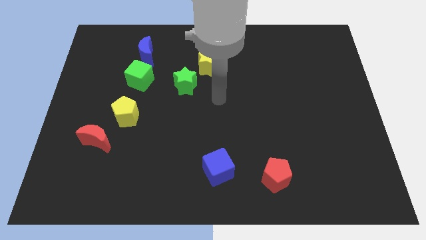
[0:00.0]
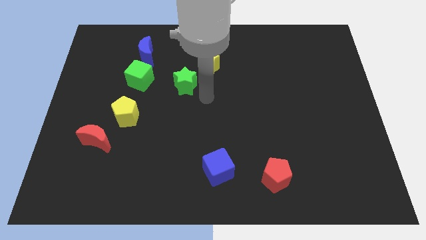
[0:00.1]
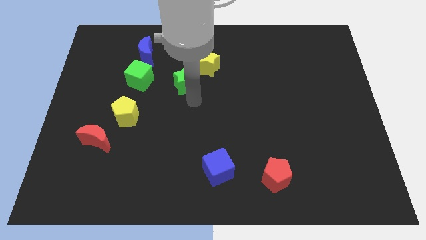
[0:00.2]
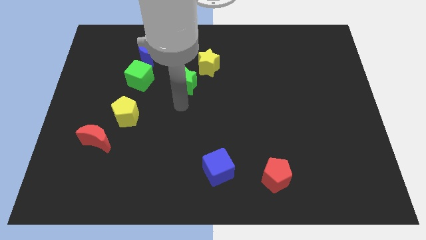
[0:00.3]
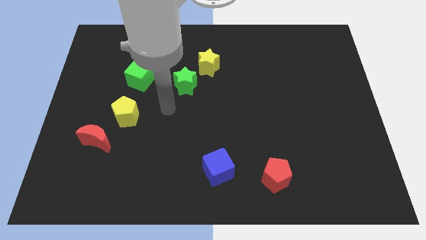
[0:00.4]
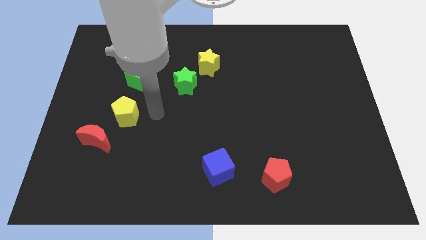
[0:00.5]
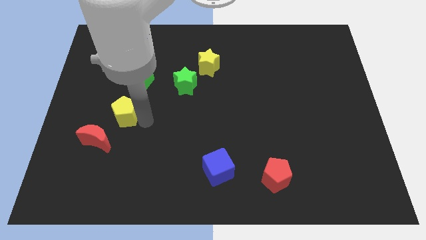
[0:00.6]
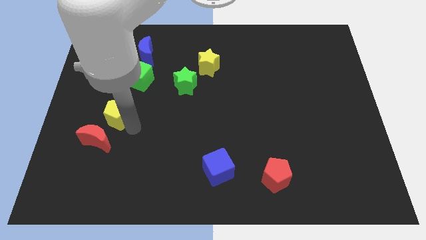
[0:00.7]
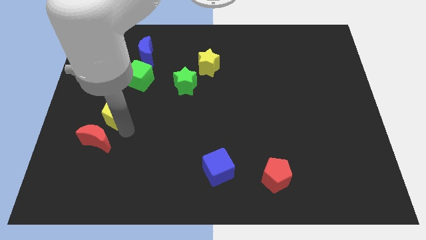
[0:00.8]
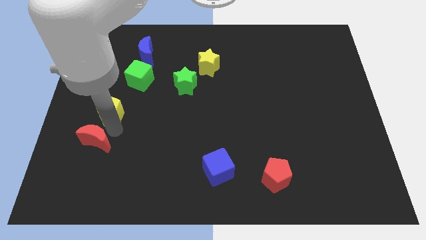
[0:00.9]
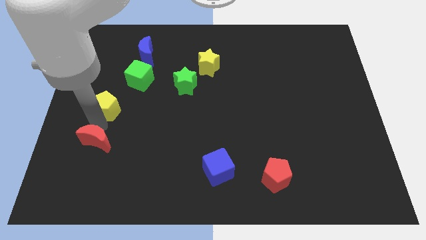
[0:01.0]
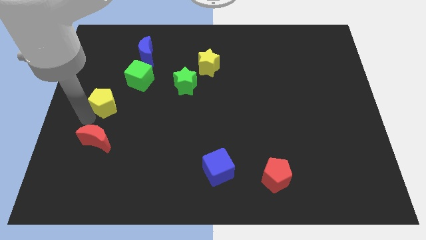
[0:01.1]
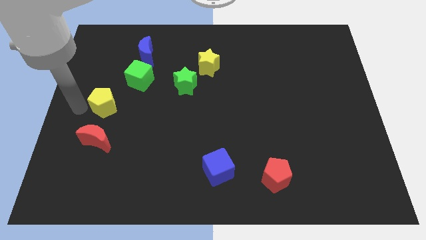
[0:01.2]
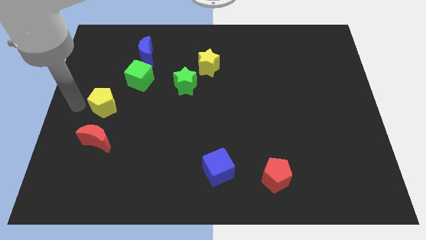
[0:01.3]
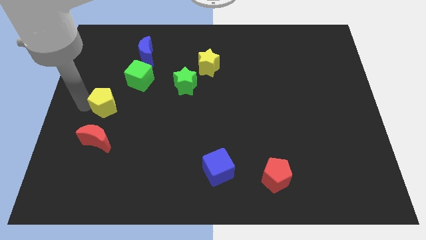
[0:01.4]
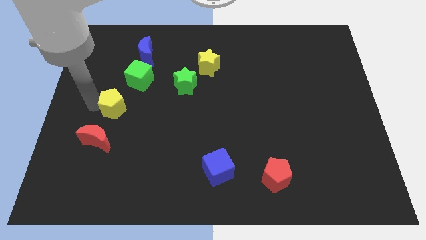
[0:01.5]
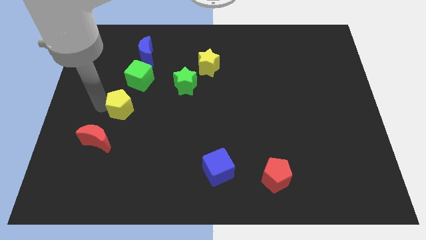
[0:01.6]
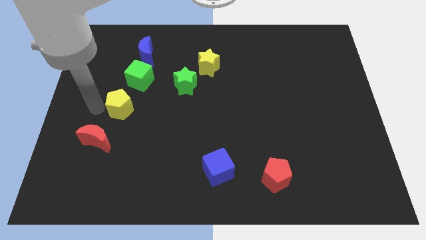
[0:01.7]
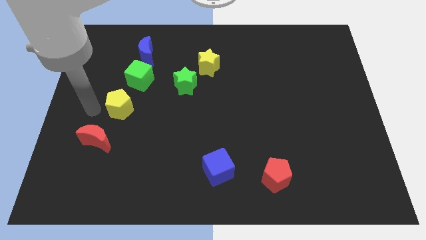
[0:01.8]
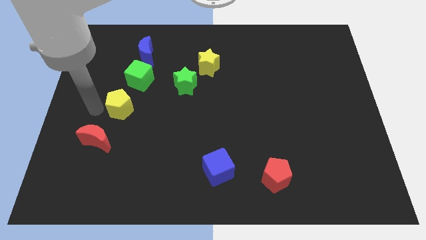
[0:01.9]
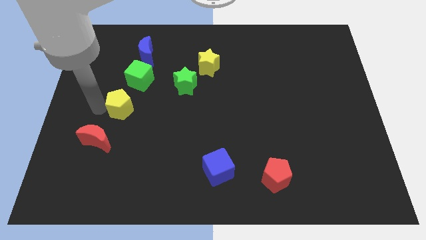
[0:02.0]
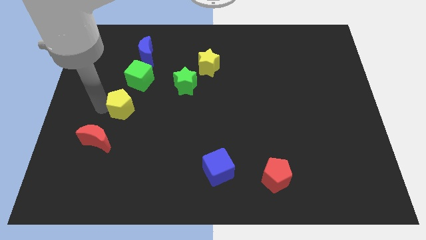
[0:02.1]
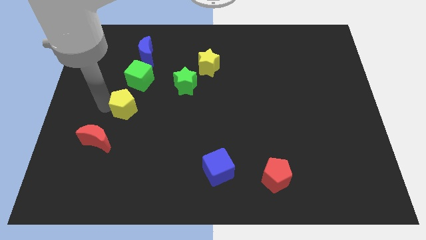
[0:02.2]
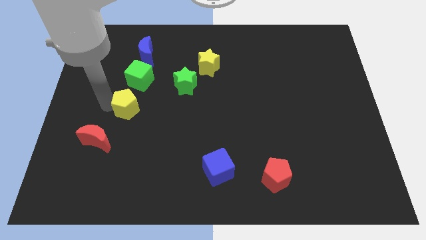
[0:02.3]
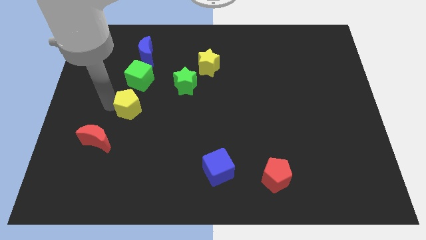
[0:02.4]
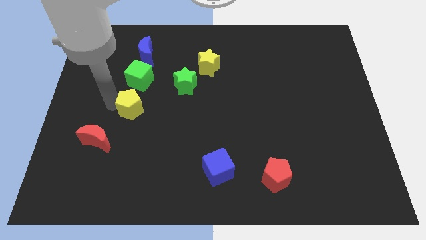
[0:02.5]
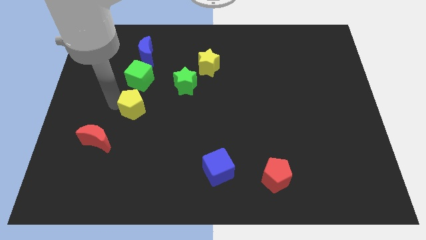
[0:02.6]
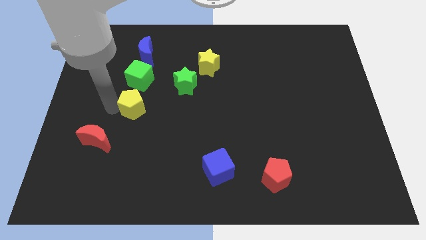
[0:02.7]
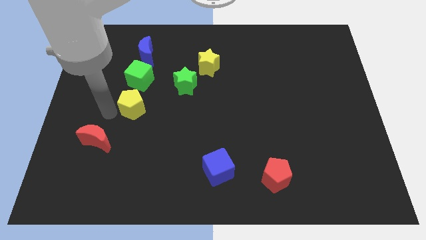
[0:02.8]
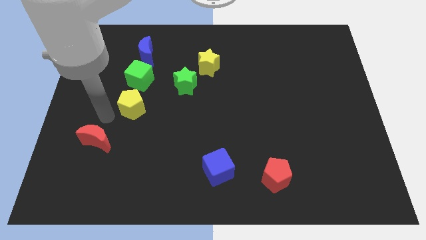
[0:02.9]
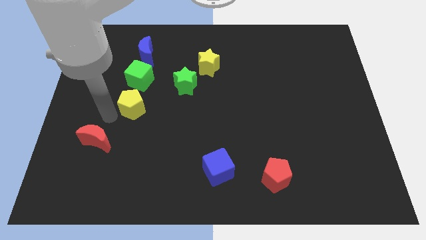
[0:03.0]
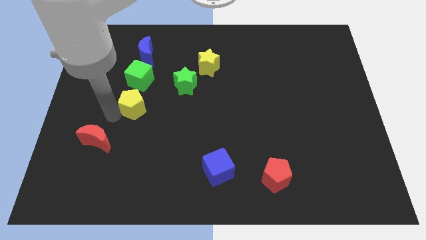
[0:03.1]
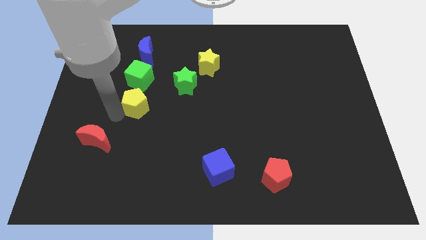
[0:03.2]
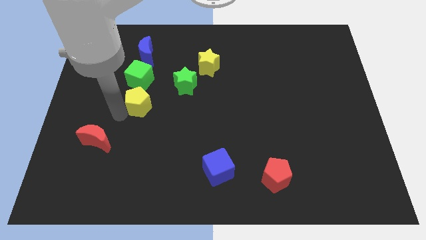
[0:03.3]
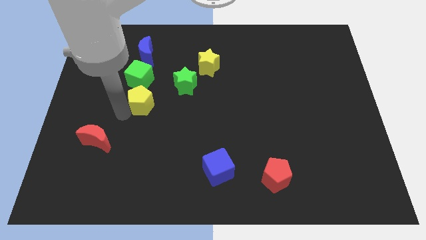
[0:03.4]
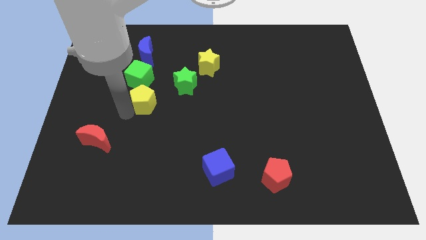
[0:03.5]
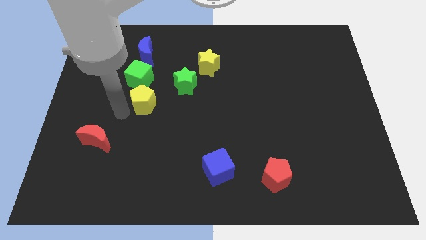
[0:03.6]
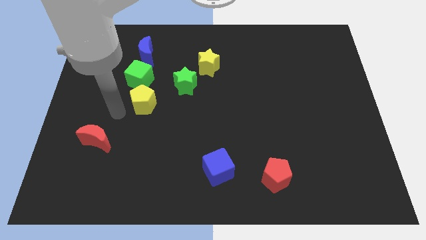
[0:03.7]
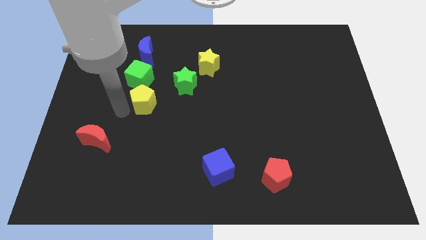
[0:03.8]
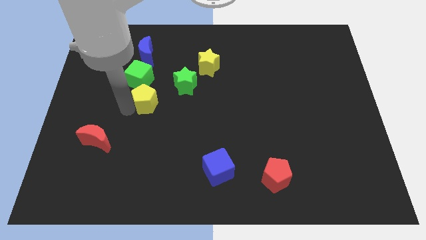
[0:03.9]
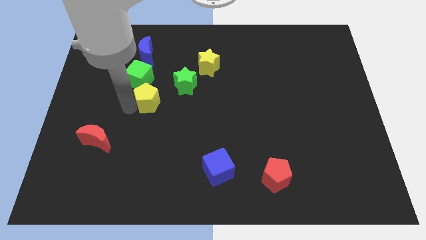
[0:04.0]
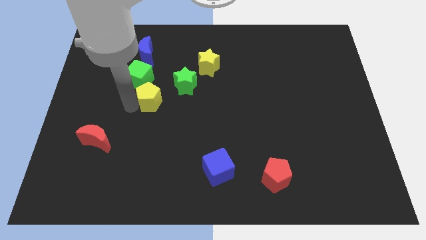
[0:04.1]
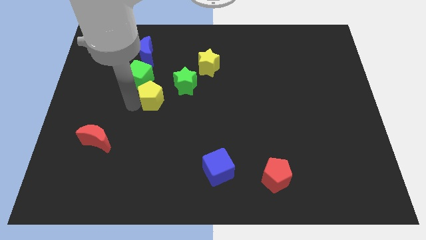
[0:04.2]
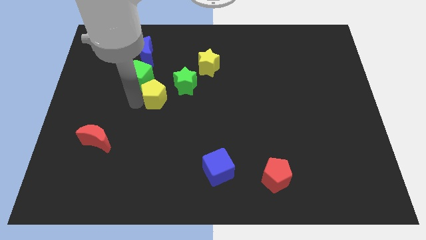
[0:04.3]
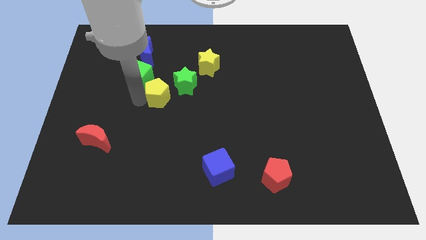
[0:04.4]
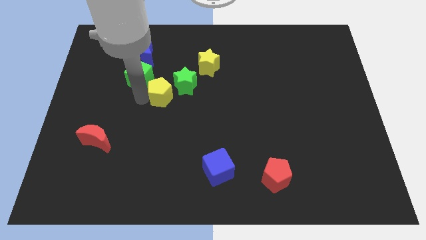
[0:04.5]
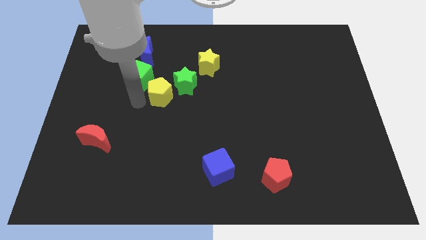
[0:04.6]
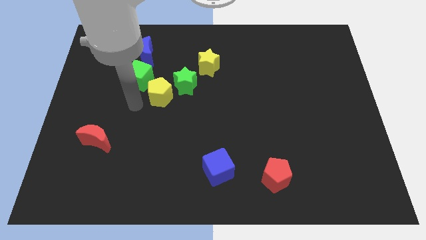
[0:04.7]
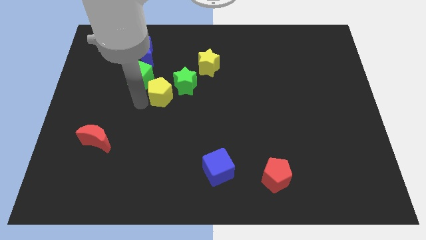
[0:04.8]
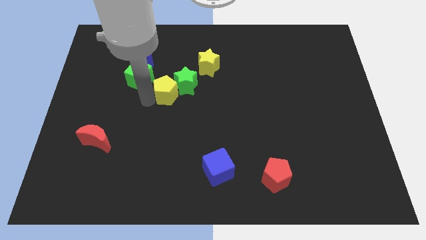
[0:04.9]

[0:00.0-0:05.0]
push the yellow pentagon next to the green star

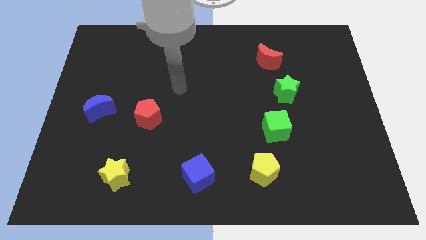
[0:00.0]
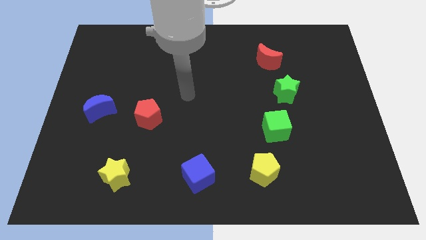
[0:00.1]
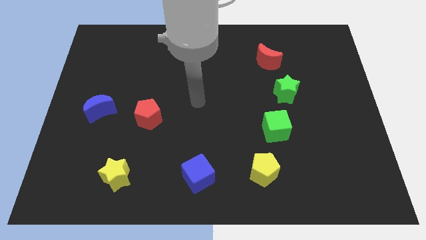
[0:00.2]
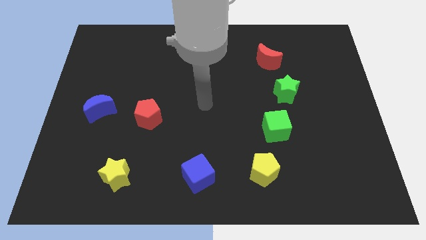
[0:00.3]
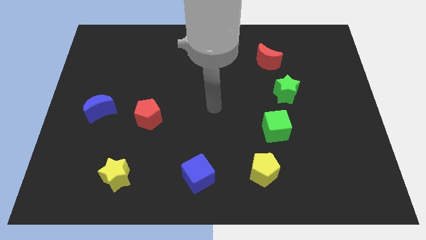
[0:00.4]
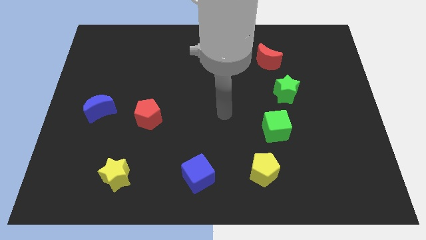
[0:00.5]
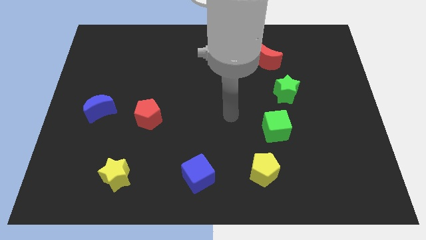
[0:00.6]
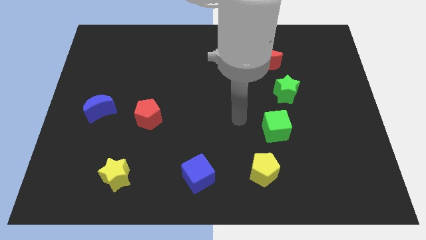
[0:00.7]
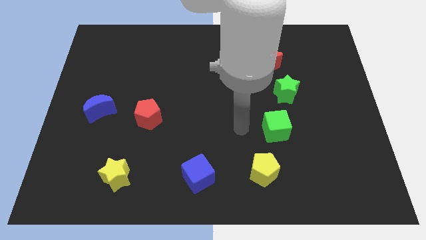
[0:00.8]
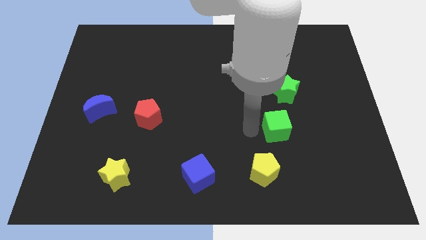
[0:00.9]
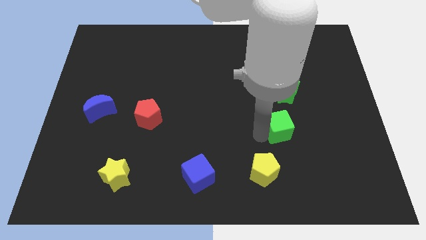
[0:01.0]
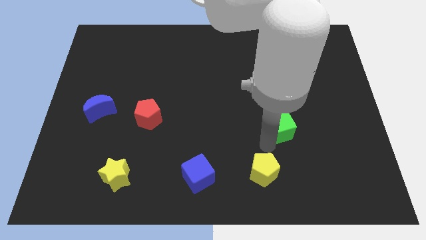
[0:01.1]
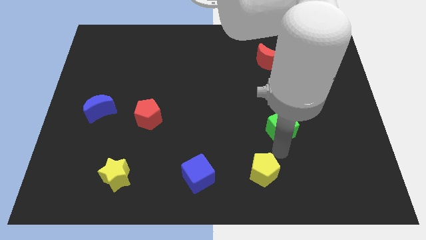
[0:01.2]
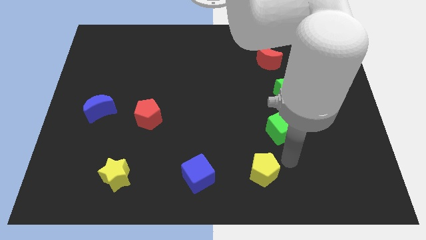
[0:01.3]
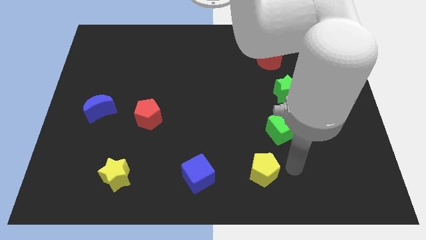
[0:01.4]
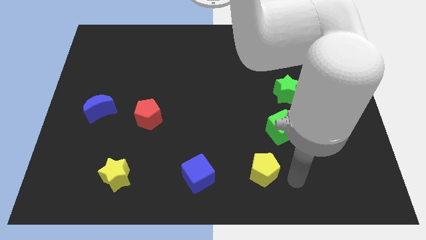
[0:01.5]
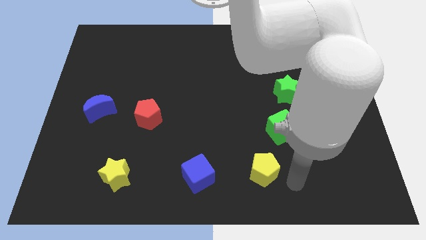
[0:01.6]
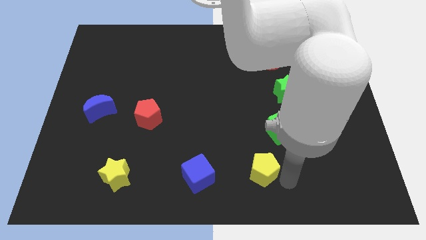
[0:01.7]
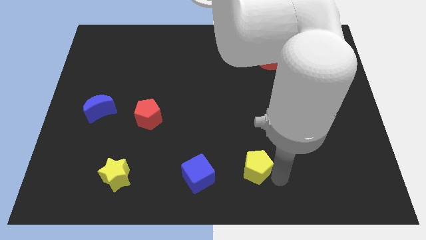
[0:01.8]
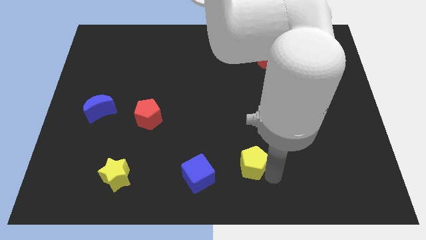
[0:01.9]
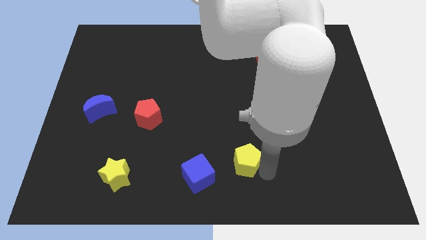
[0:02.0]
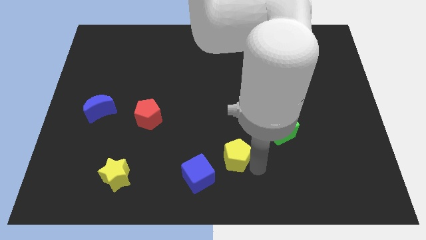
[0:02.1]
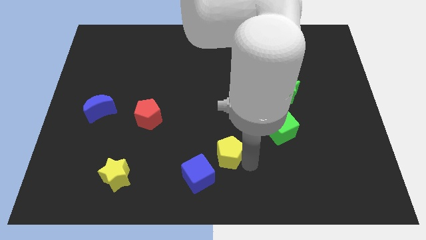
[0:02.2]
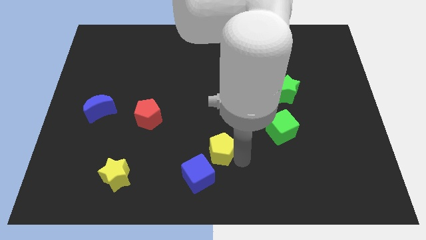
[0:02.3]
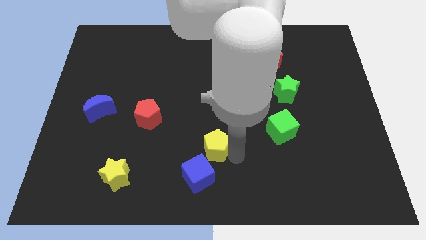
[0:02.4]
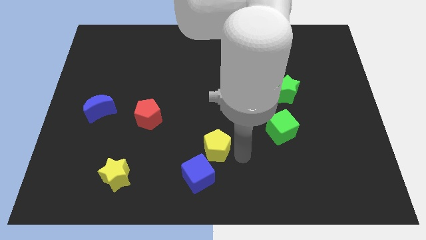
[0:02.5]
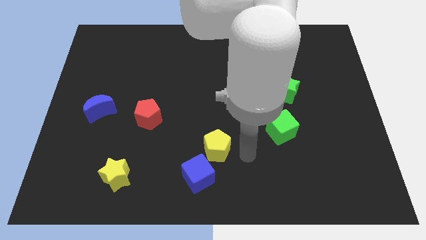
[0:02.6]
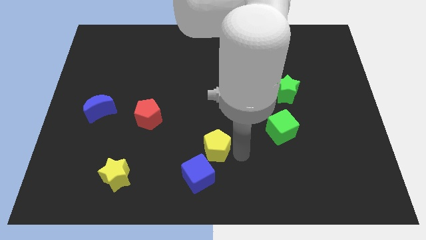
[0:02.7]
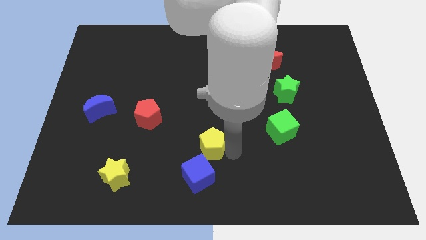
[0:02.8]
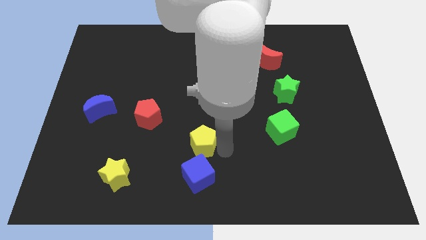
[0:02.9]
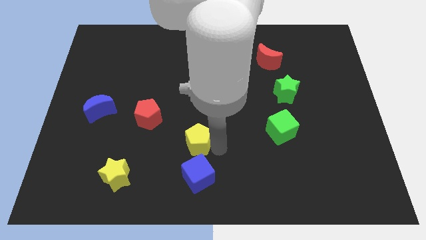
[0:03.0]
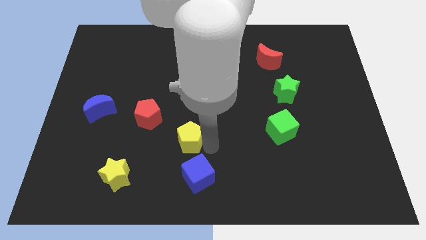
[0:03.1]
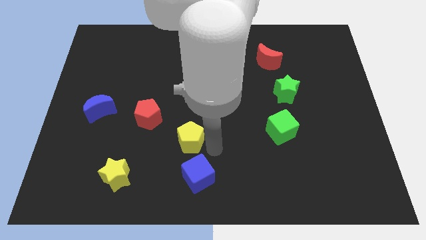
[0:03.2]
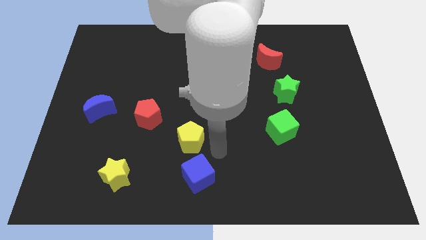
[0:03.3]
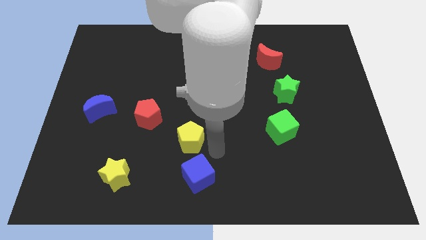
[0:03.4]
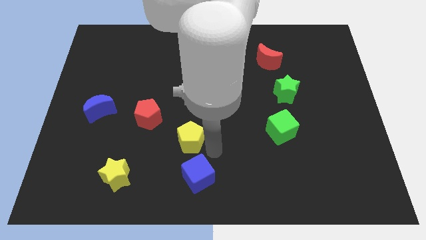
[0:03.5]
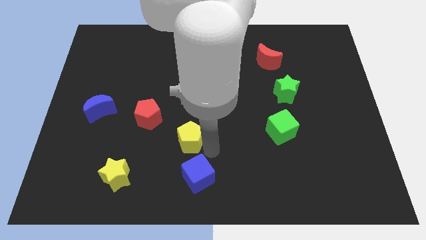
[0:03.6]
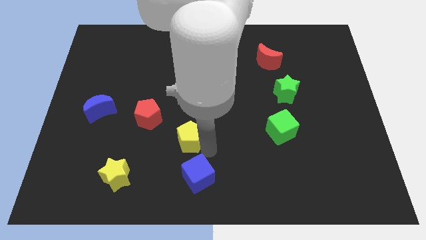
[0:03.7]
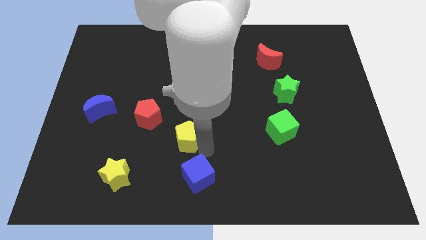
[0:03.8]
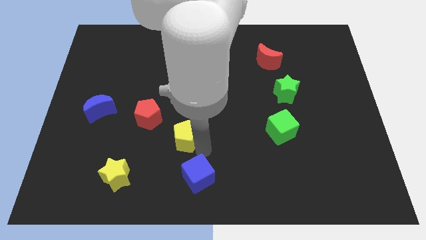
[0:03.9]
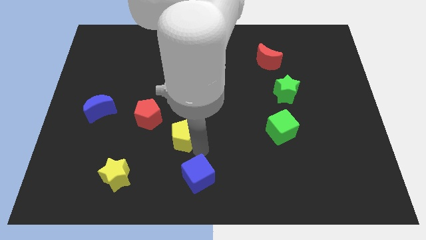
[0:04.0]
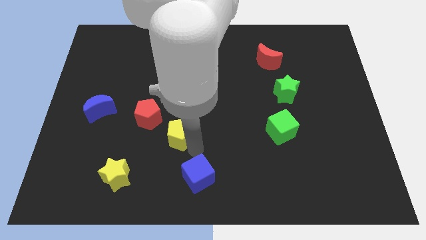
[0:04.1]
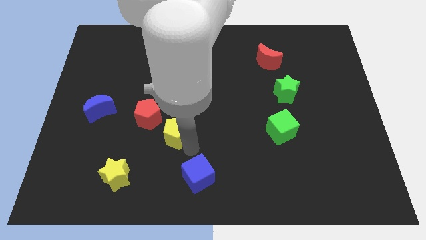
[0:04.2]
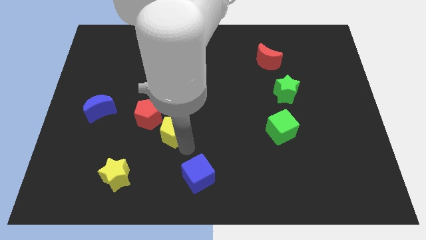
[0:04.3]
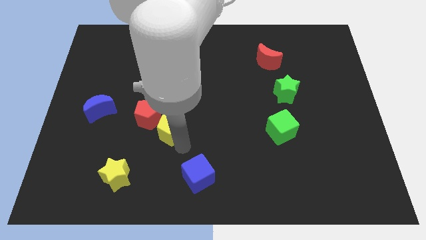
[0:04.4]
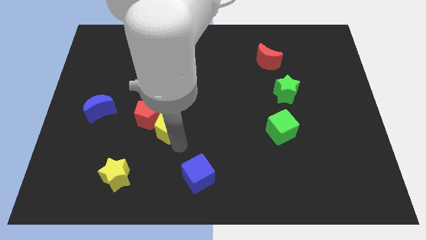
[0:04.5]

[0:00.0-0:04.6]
move the yellow pentagon to the red pentagon
